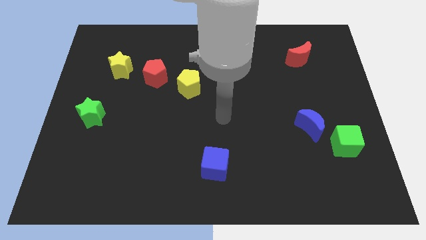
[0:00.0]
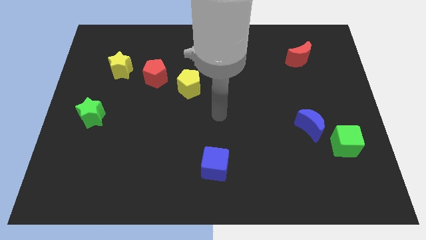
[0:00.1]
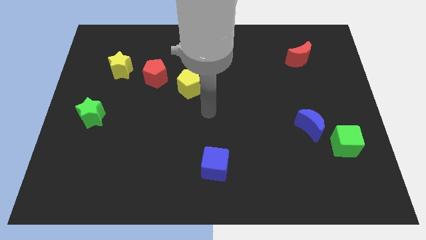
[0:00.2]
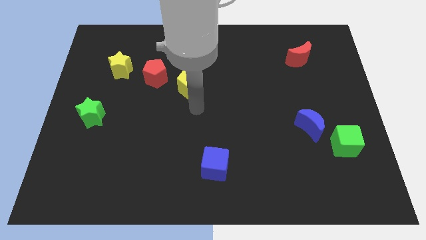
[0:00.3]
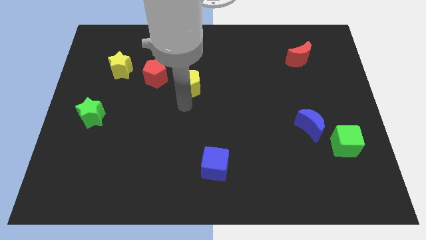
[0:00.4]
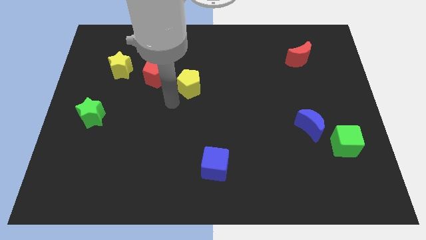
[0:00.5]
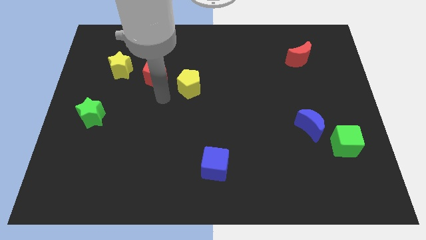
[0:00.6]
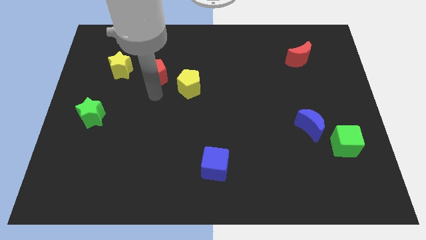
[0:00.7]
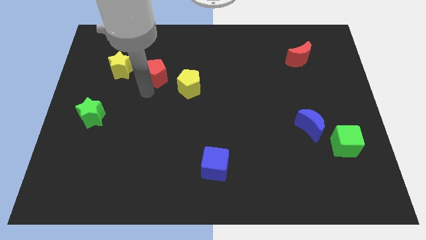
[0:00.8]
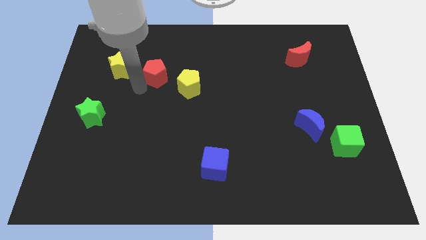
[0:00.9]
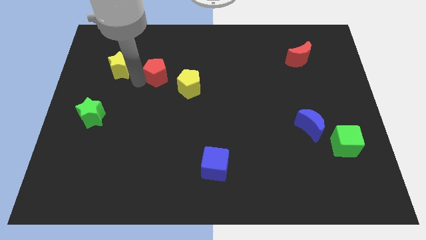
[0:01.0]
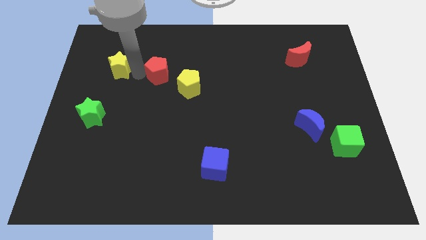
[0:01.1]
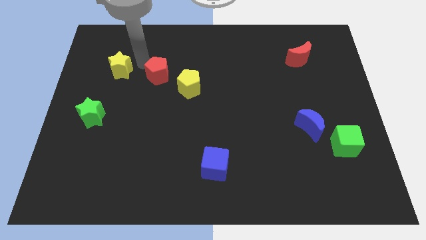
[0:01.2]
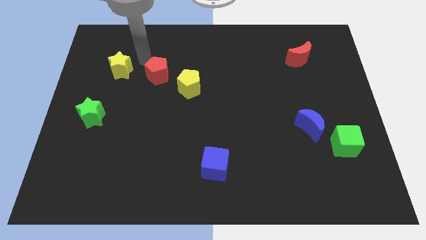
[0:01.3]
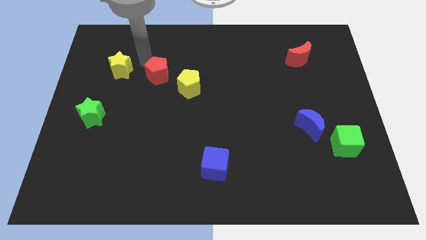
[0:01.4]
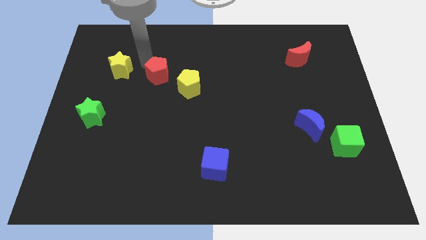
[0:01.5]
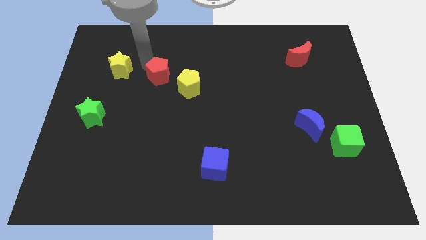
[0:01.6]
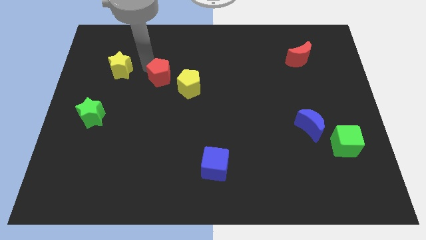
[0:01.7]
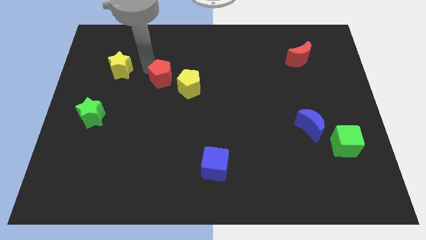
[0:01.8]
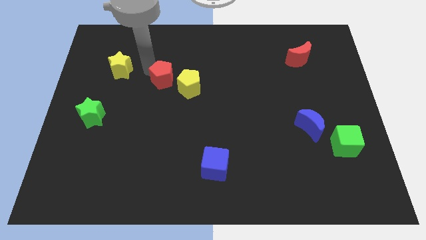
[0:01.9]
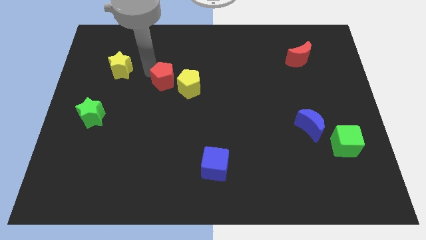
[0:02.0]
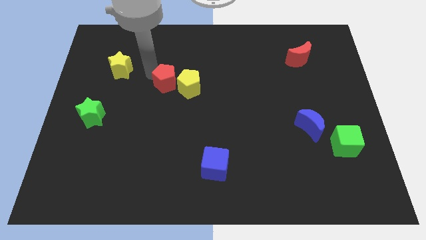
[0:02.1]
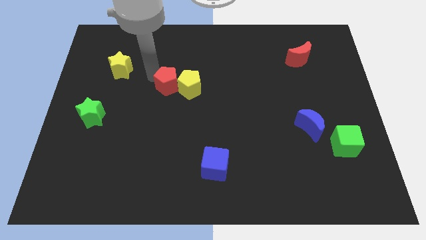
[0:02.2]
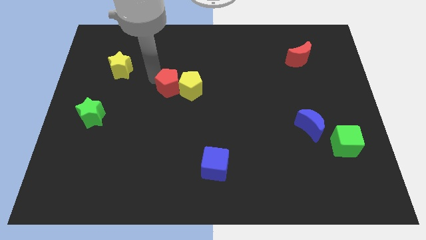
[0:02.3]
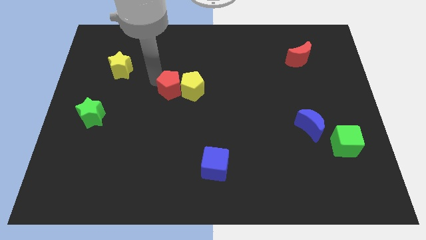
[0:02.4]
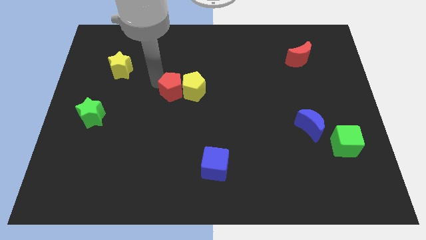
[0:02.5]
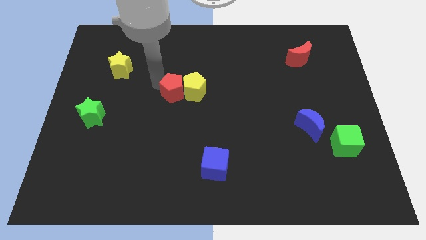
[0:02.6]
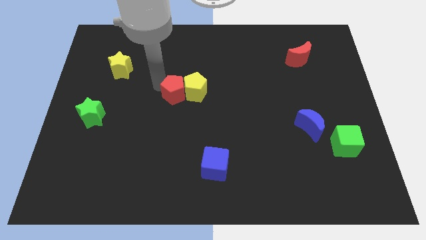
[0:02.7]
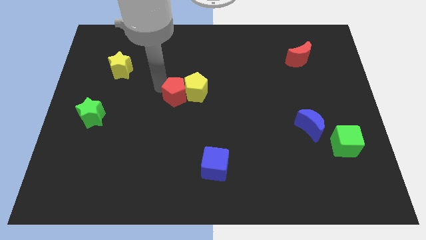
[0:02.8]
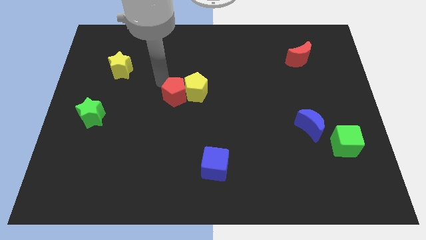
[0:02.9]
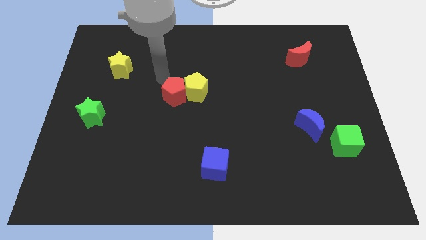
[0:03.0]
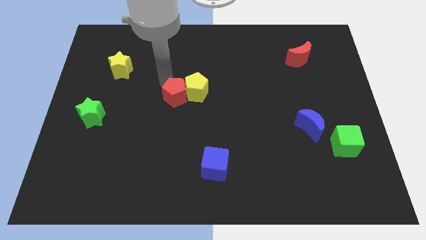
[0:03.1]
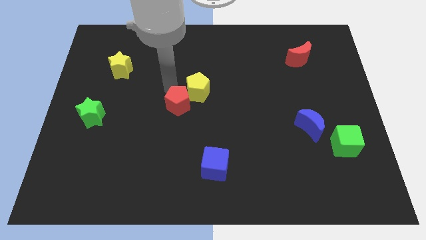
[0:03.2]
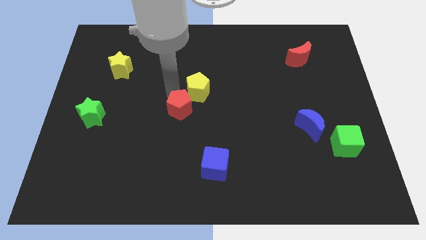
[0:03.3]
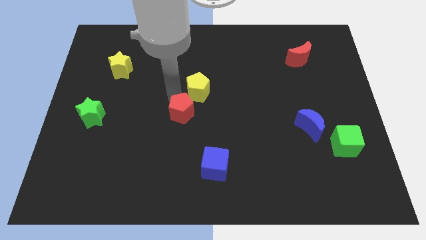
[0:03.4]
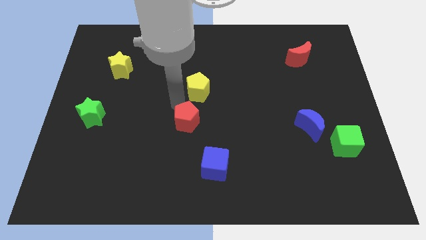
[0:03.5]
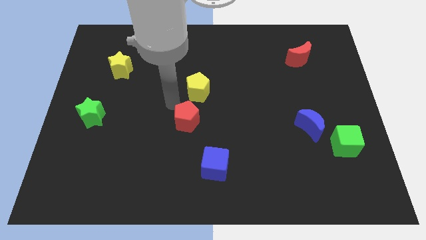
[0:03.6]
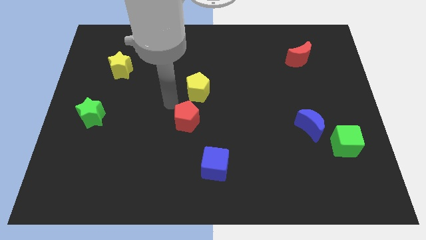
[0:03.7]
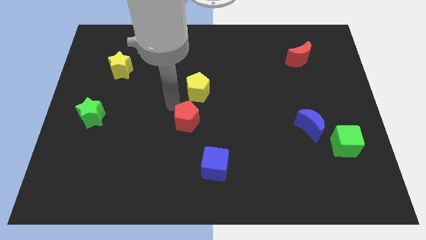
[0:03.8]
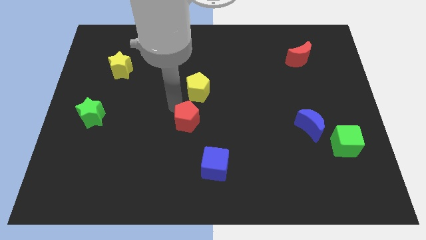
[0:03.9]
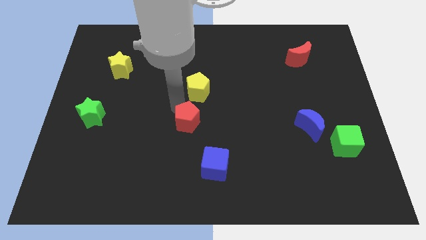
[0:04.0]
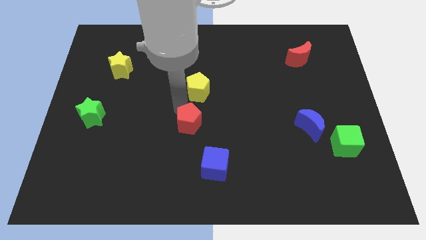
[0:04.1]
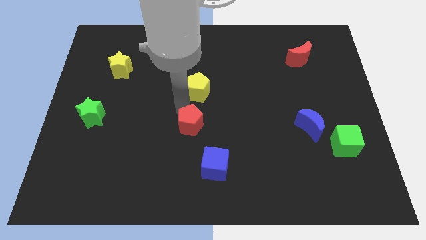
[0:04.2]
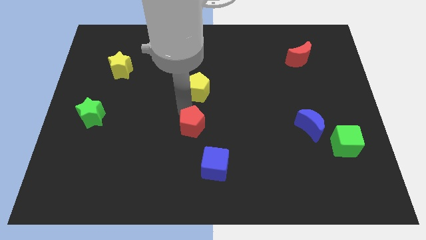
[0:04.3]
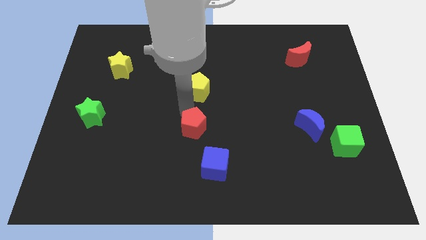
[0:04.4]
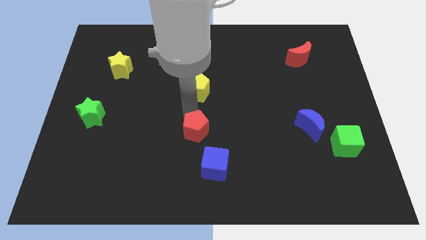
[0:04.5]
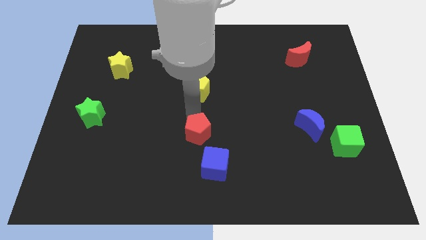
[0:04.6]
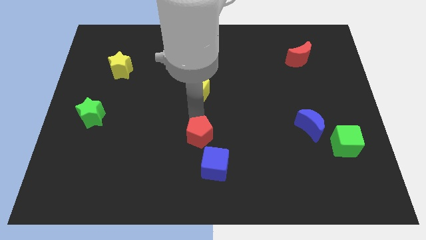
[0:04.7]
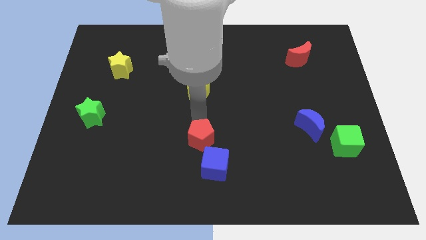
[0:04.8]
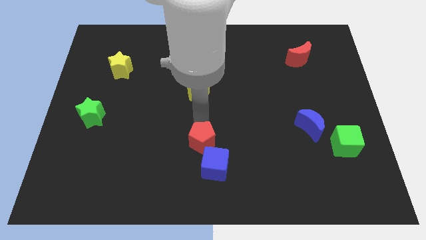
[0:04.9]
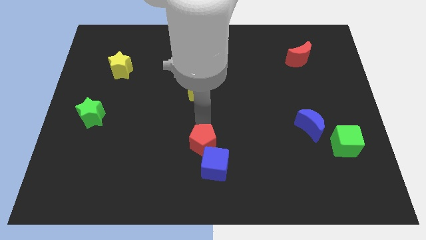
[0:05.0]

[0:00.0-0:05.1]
slide the red pentagon to the blue cube

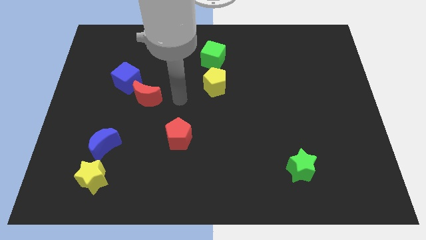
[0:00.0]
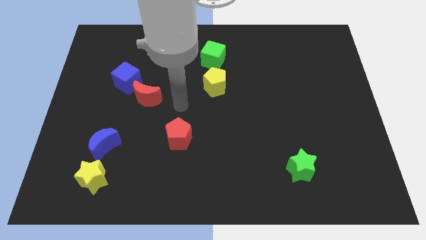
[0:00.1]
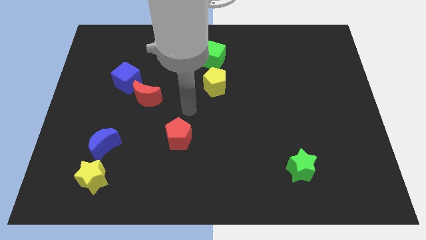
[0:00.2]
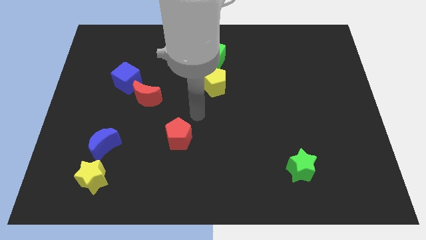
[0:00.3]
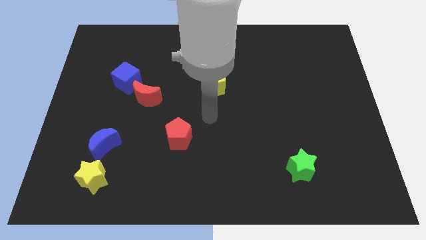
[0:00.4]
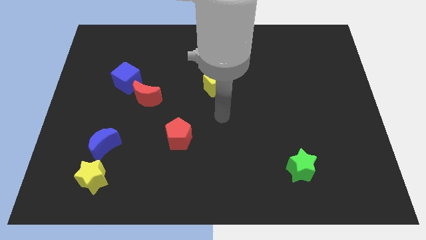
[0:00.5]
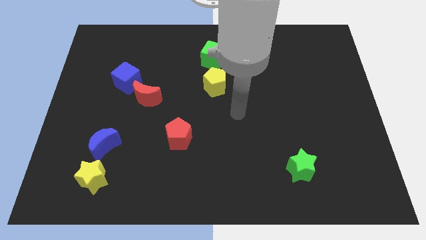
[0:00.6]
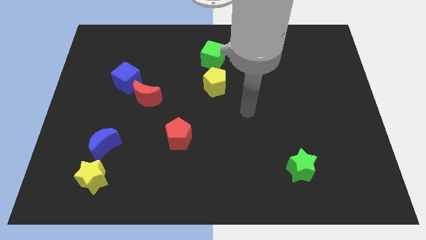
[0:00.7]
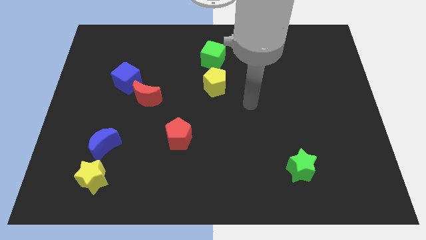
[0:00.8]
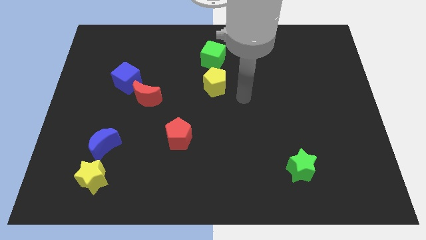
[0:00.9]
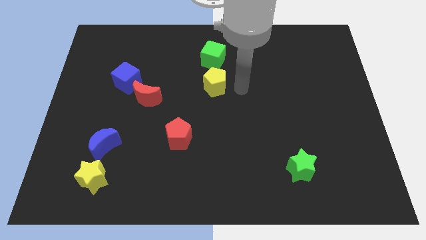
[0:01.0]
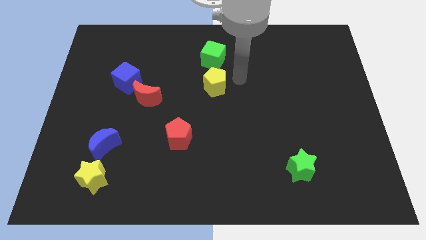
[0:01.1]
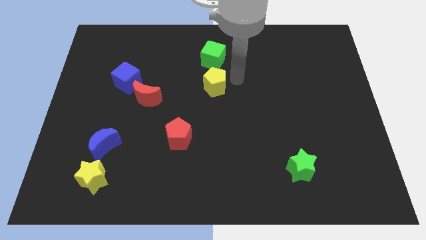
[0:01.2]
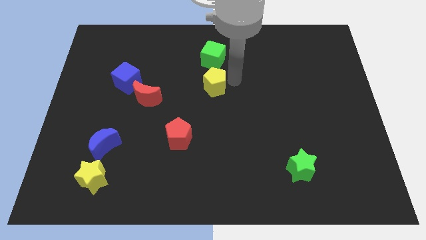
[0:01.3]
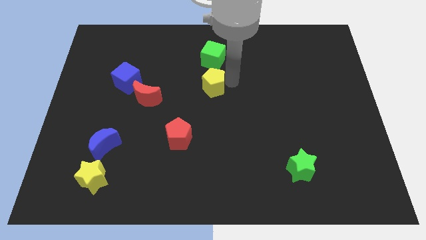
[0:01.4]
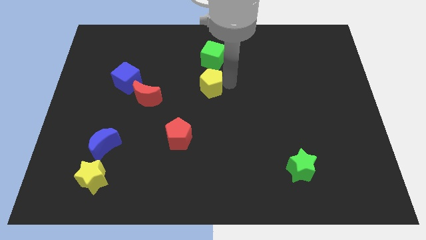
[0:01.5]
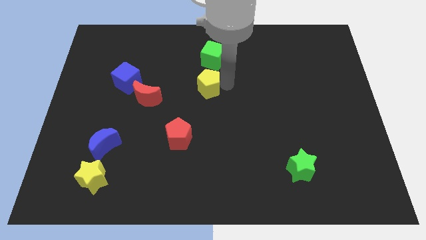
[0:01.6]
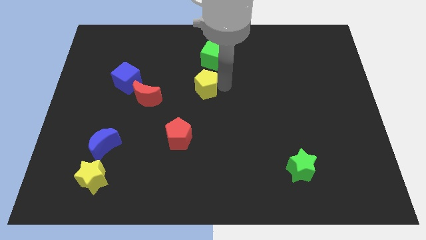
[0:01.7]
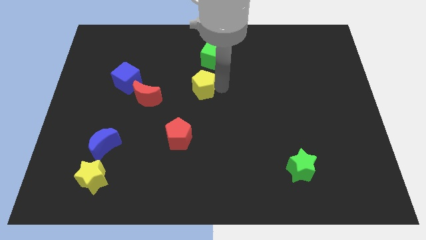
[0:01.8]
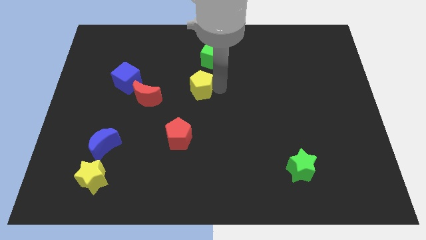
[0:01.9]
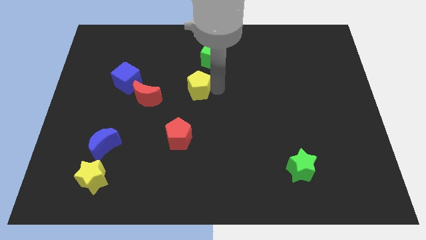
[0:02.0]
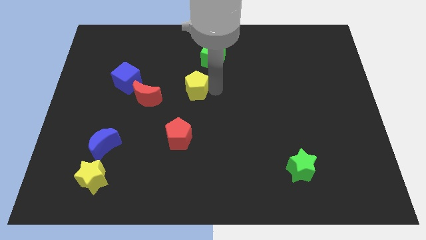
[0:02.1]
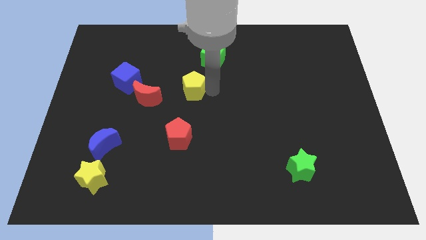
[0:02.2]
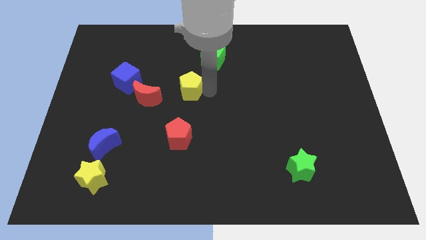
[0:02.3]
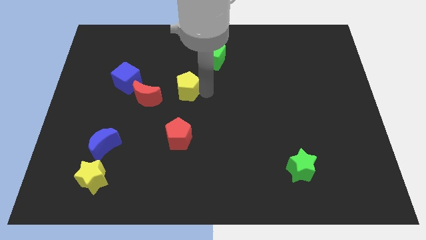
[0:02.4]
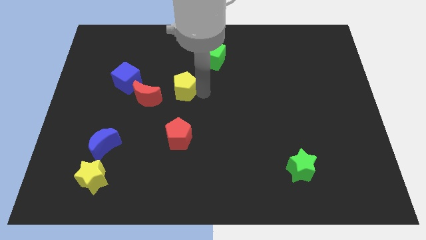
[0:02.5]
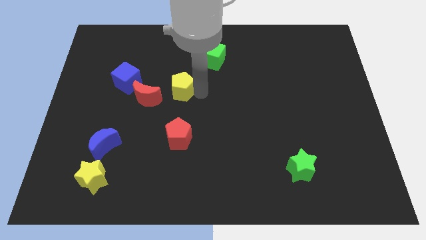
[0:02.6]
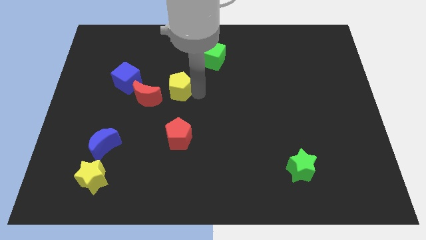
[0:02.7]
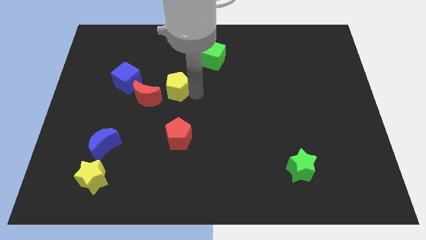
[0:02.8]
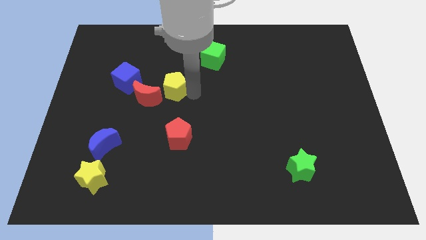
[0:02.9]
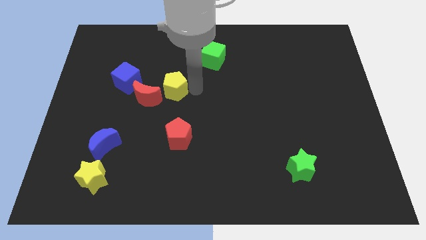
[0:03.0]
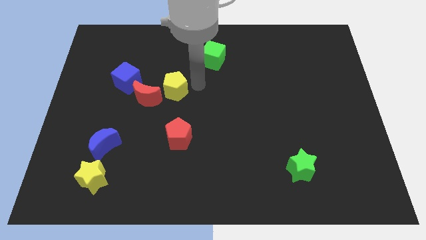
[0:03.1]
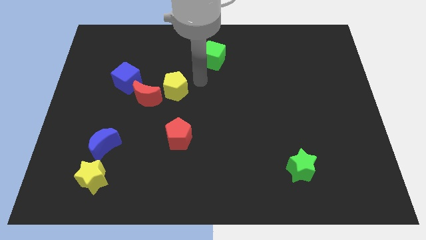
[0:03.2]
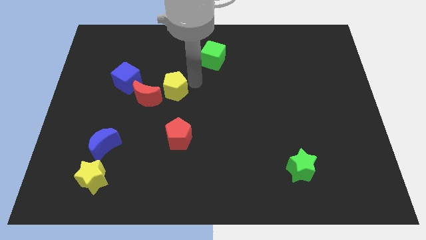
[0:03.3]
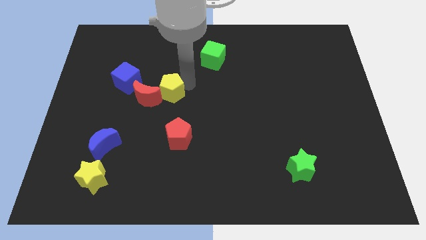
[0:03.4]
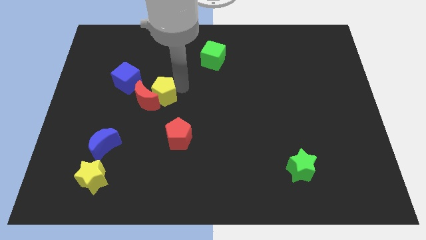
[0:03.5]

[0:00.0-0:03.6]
move the yellow pentagon to the red moon
